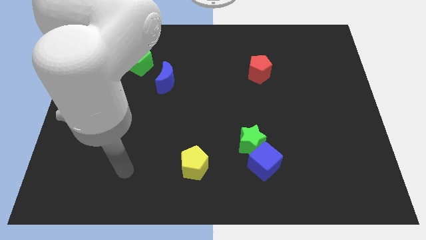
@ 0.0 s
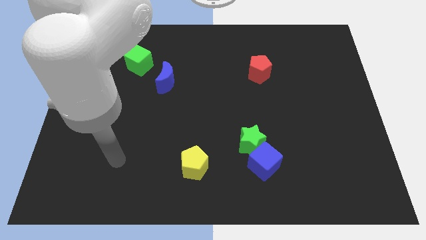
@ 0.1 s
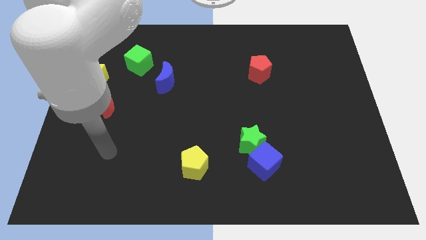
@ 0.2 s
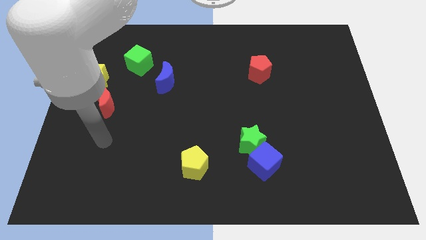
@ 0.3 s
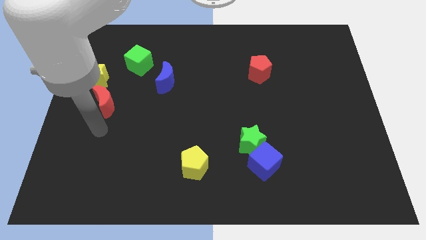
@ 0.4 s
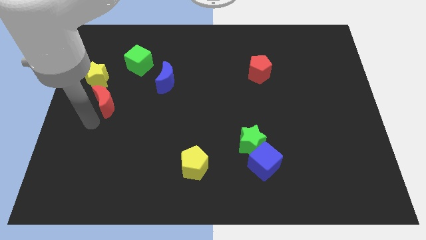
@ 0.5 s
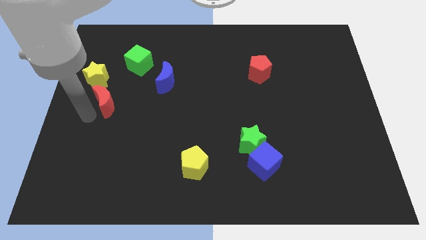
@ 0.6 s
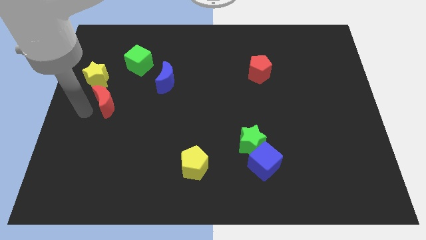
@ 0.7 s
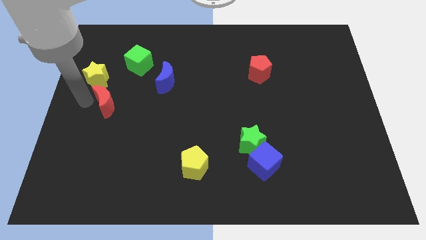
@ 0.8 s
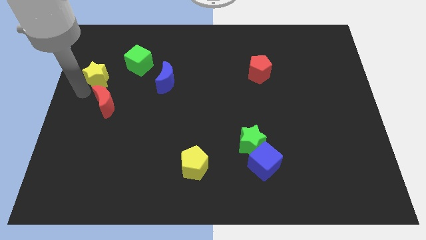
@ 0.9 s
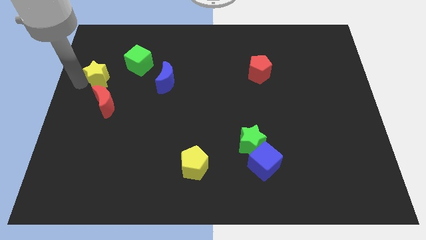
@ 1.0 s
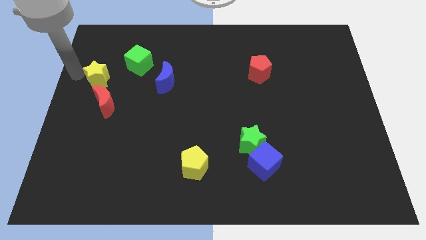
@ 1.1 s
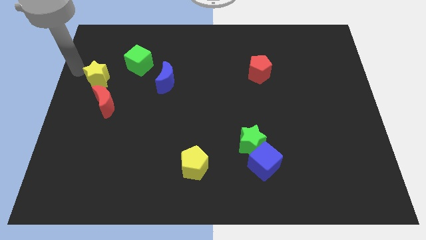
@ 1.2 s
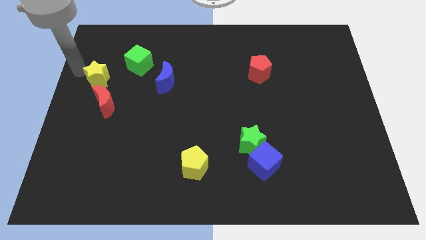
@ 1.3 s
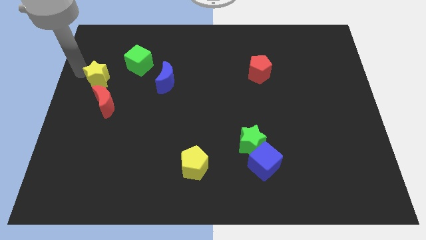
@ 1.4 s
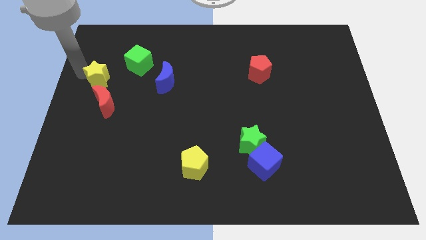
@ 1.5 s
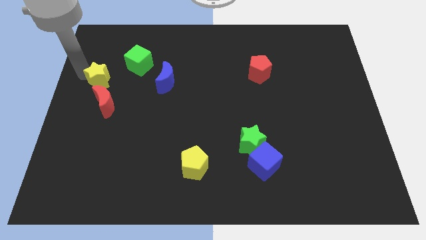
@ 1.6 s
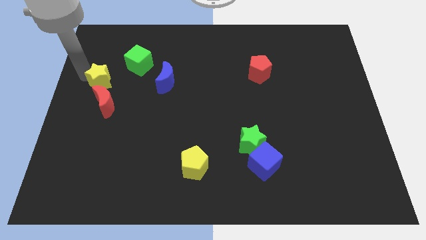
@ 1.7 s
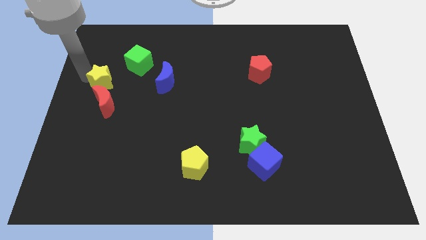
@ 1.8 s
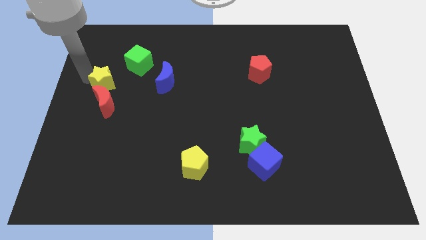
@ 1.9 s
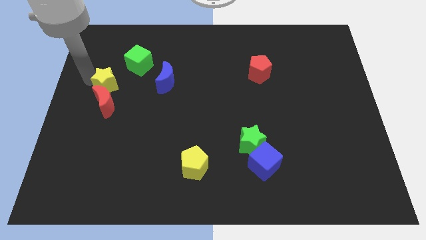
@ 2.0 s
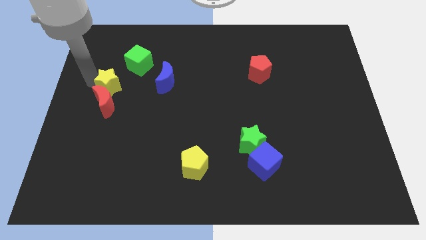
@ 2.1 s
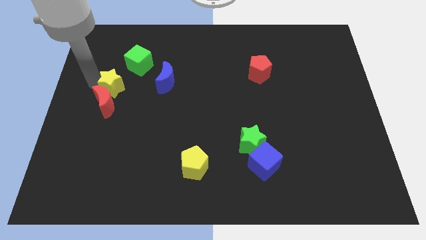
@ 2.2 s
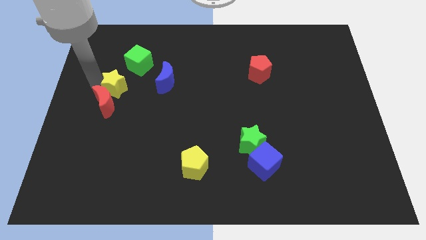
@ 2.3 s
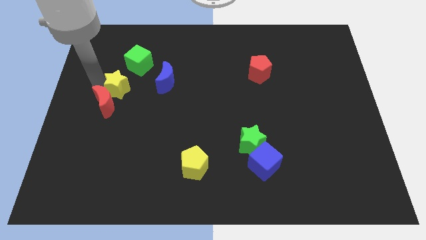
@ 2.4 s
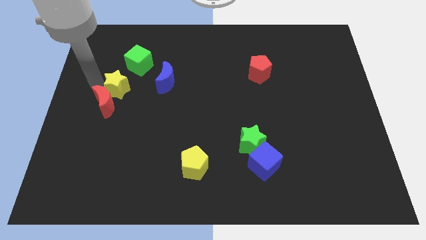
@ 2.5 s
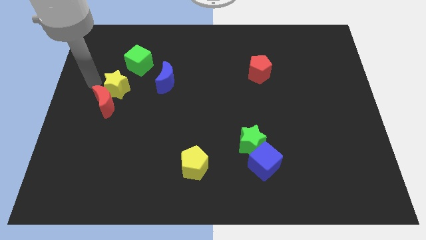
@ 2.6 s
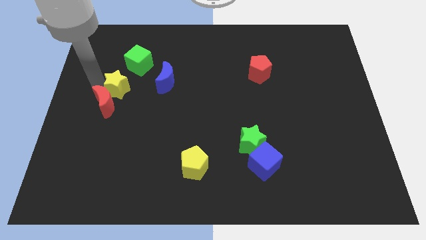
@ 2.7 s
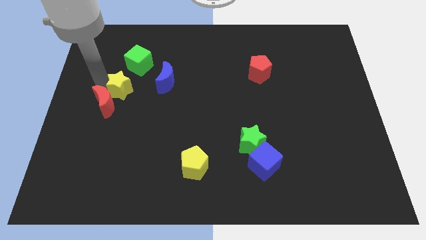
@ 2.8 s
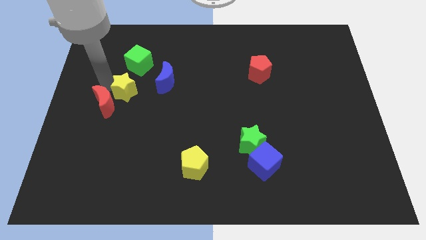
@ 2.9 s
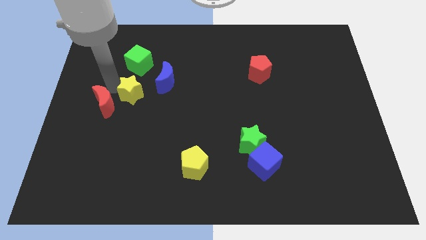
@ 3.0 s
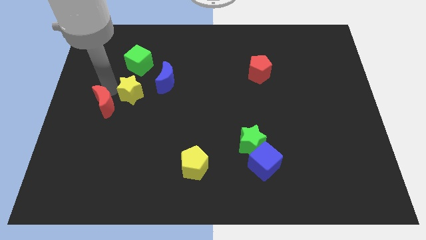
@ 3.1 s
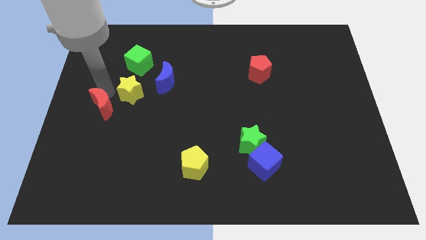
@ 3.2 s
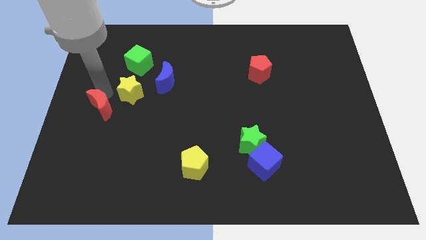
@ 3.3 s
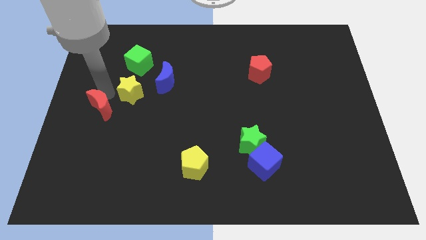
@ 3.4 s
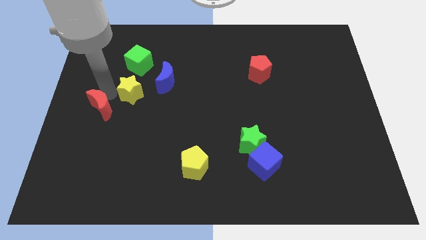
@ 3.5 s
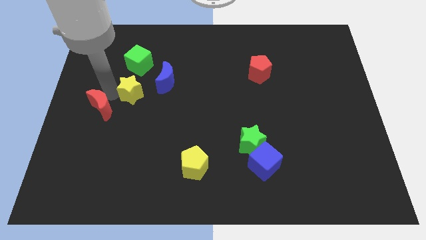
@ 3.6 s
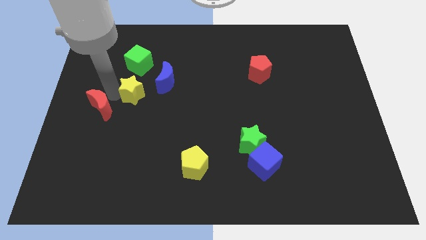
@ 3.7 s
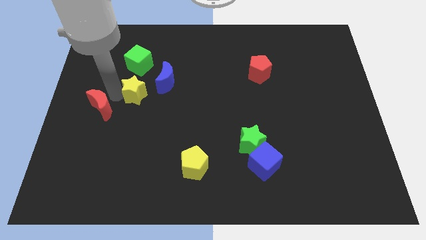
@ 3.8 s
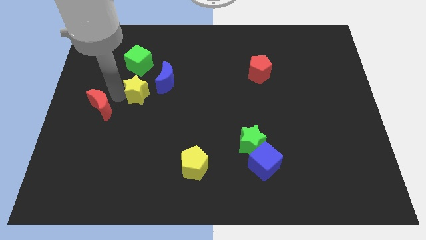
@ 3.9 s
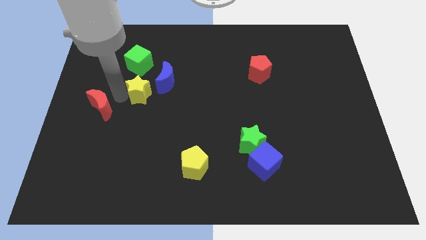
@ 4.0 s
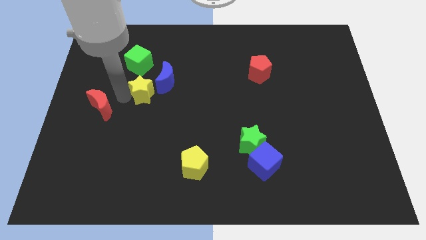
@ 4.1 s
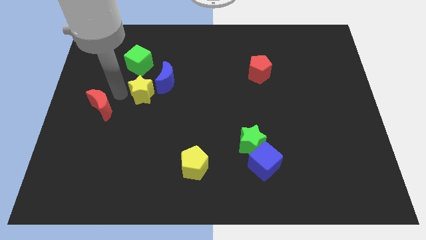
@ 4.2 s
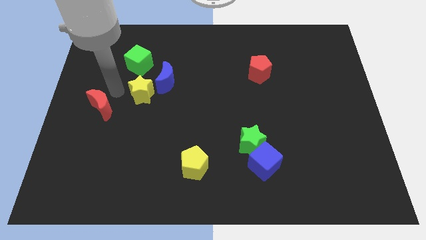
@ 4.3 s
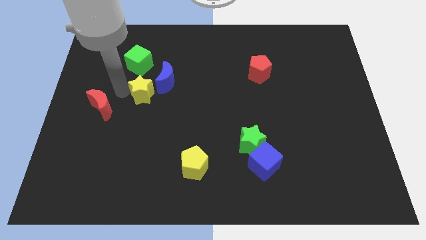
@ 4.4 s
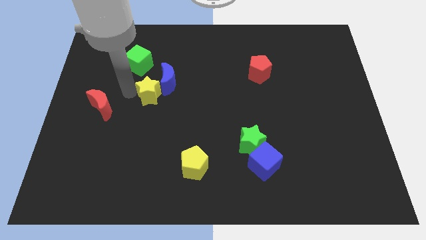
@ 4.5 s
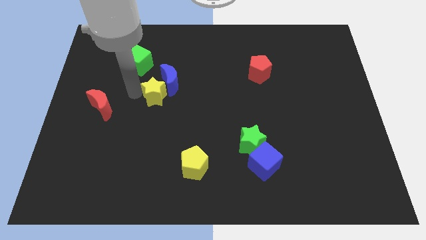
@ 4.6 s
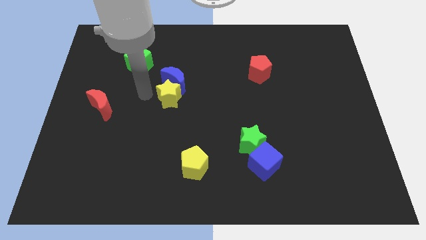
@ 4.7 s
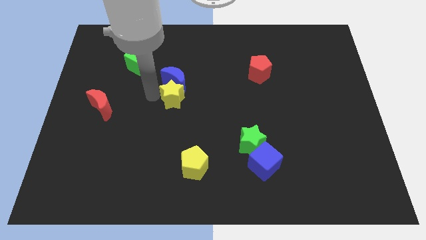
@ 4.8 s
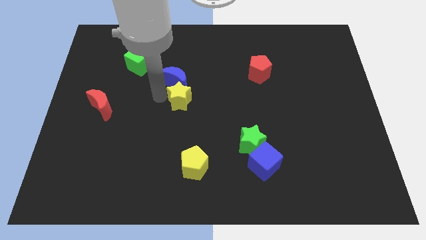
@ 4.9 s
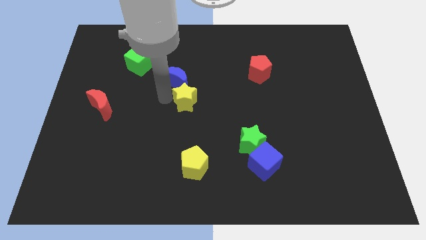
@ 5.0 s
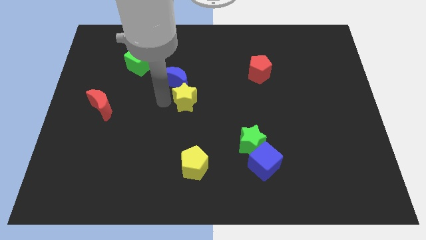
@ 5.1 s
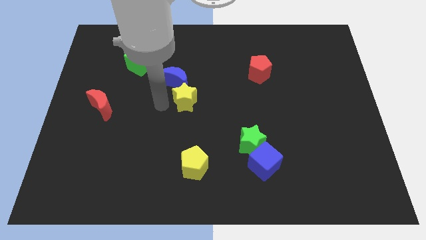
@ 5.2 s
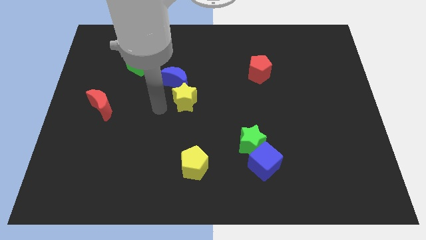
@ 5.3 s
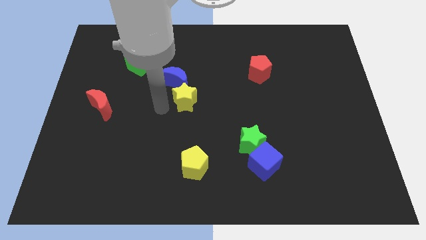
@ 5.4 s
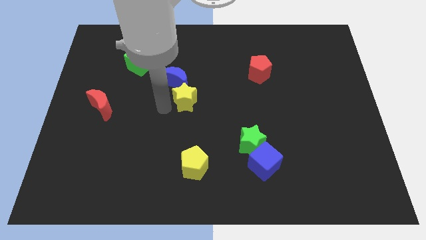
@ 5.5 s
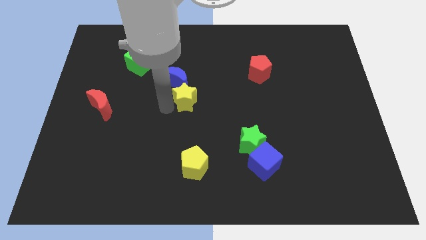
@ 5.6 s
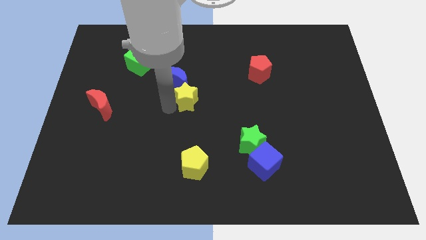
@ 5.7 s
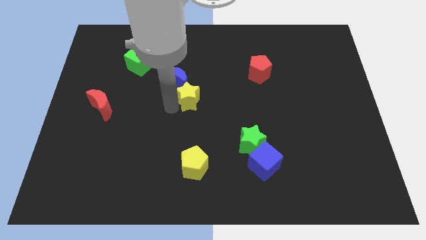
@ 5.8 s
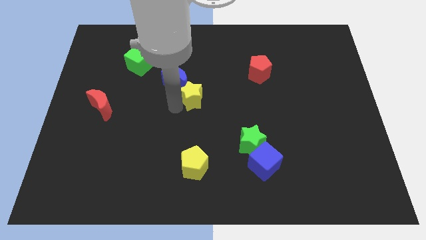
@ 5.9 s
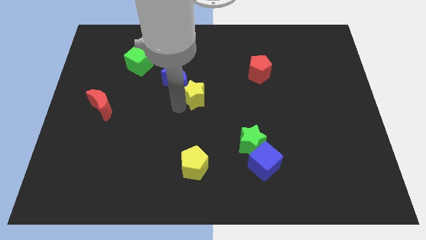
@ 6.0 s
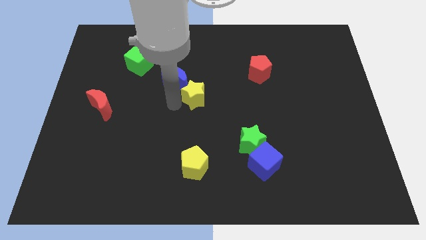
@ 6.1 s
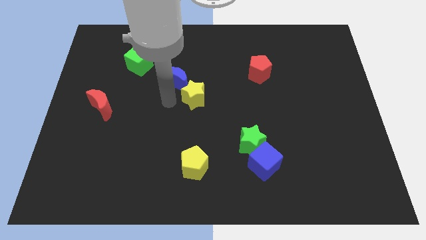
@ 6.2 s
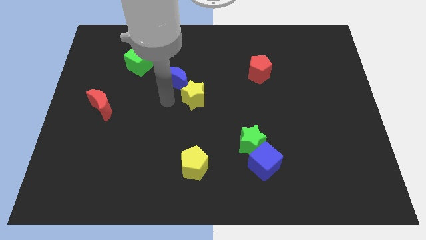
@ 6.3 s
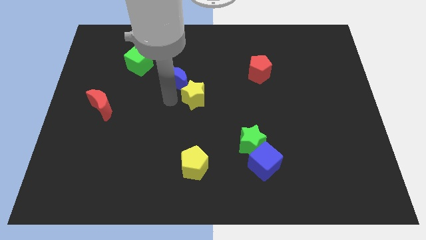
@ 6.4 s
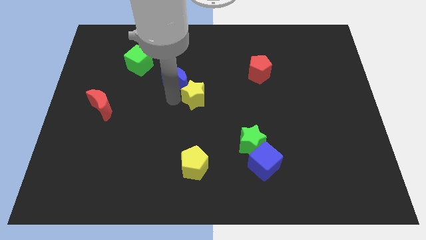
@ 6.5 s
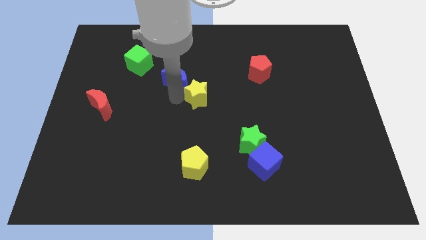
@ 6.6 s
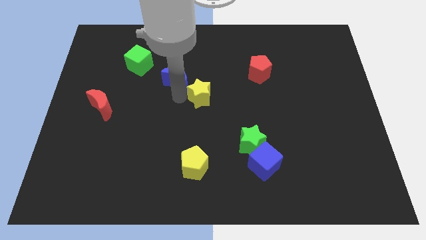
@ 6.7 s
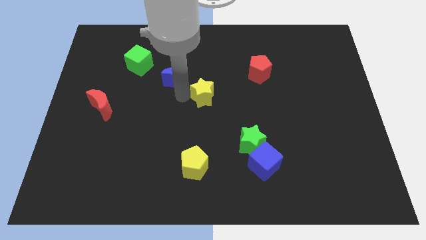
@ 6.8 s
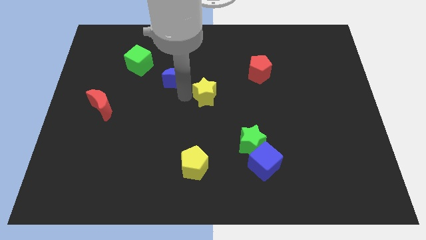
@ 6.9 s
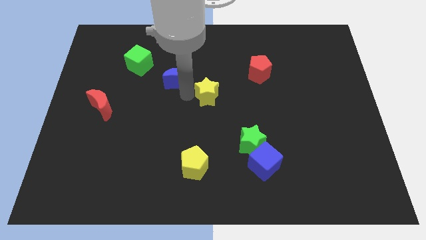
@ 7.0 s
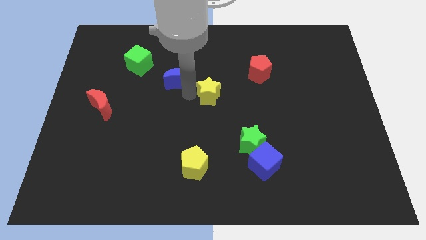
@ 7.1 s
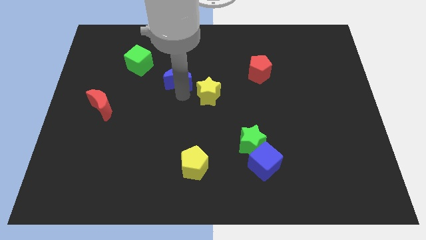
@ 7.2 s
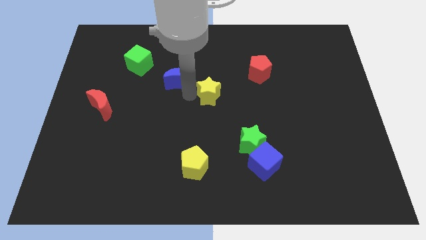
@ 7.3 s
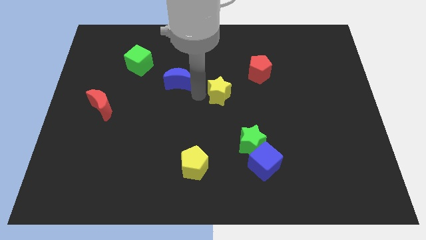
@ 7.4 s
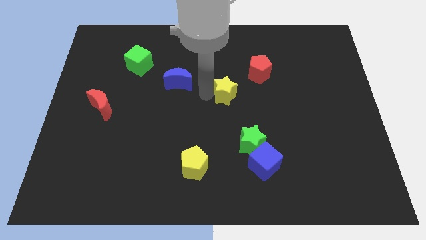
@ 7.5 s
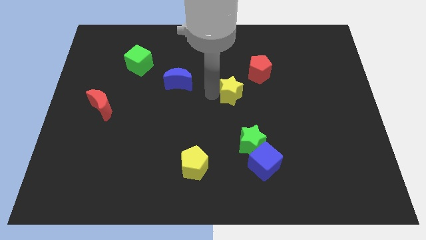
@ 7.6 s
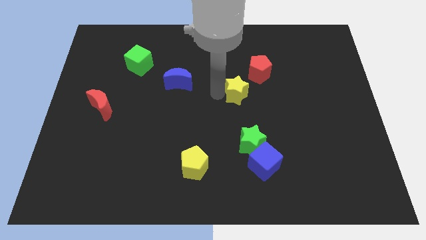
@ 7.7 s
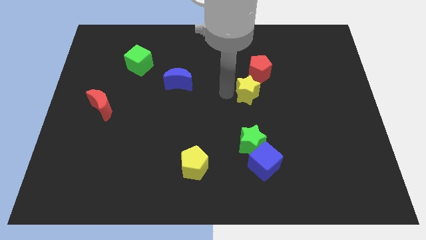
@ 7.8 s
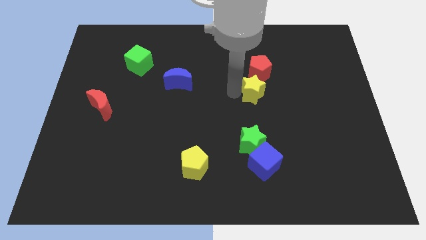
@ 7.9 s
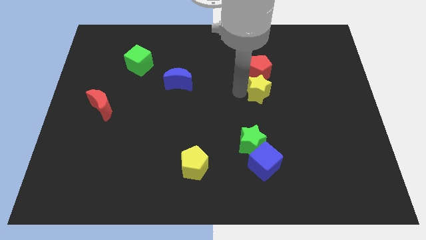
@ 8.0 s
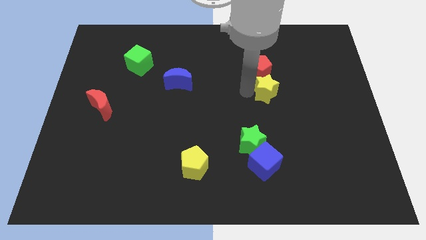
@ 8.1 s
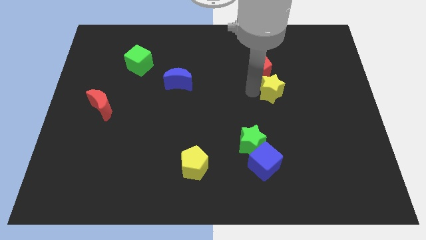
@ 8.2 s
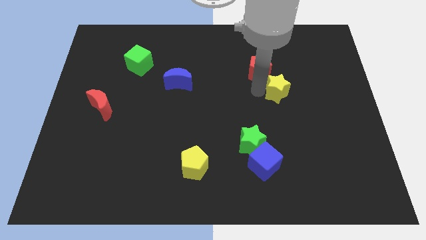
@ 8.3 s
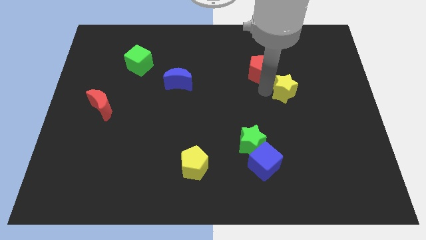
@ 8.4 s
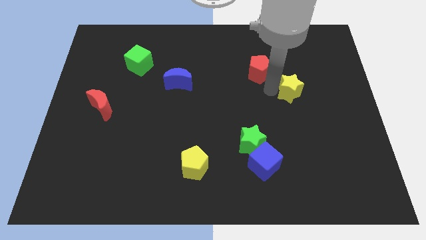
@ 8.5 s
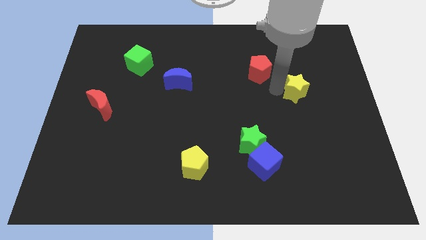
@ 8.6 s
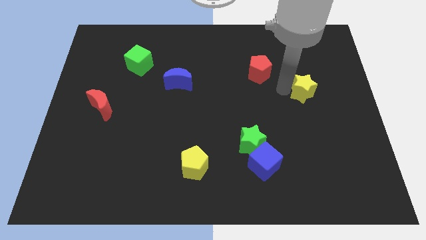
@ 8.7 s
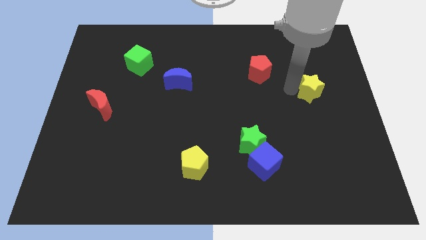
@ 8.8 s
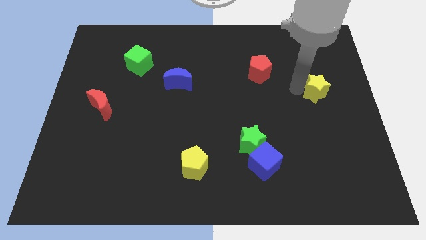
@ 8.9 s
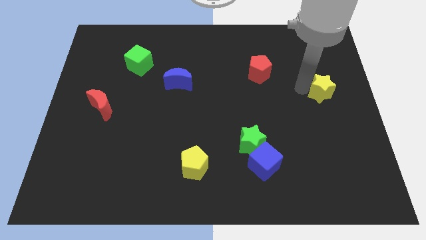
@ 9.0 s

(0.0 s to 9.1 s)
put the yellow star to the right side
